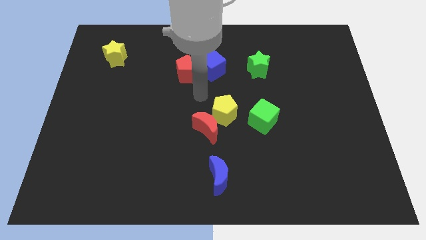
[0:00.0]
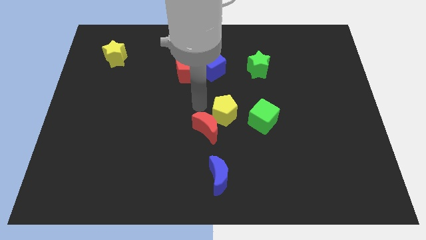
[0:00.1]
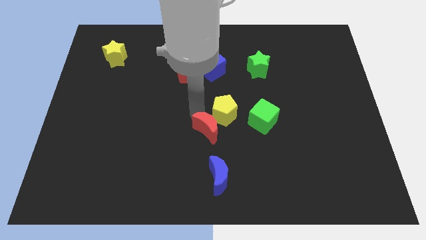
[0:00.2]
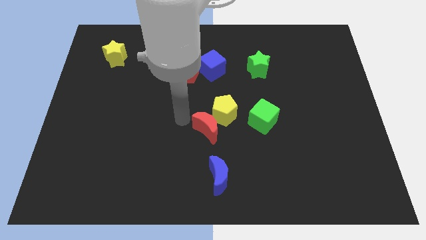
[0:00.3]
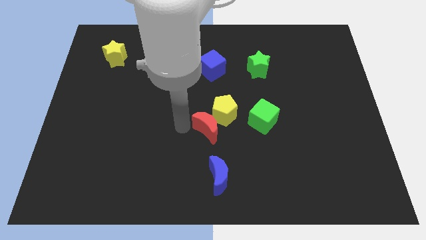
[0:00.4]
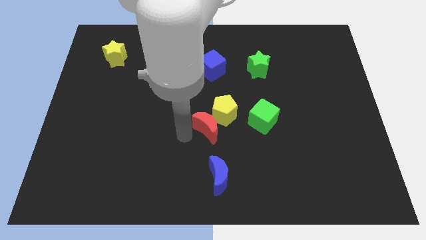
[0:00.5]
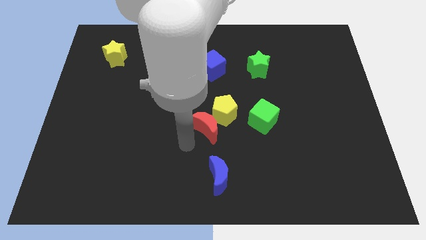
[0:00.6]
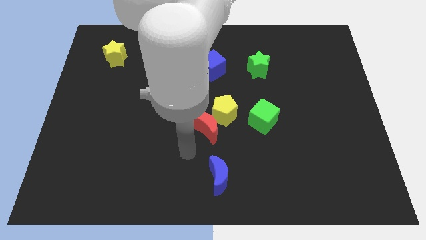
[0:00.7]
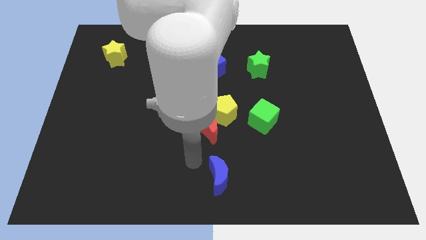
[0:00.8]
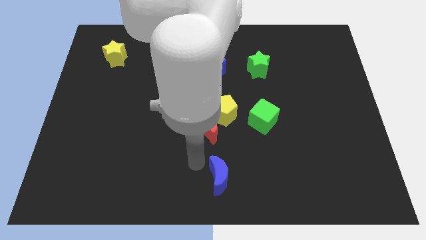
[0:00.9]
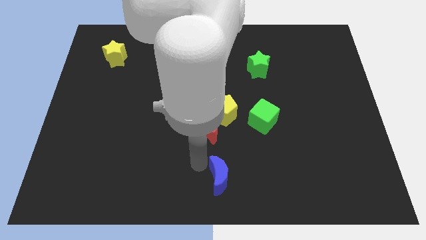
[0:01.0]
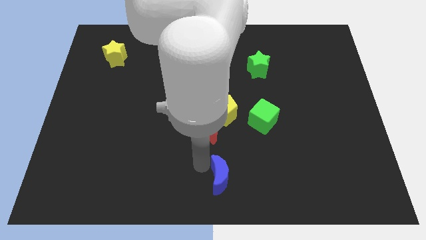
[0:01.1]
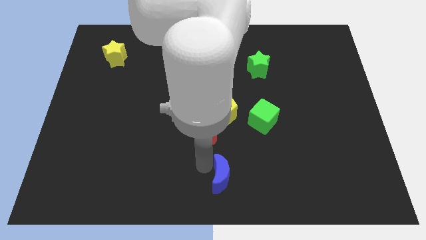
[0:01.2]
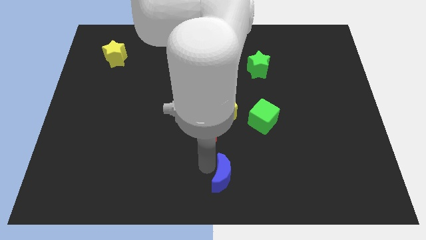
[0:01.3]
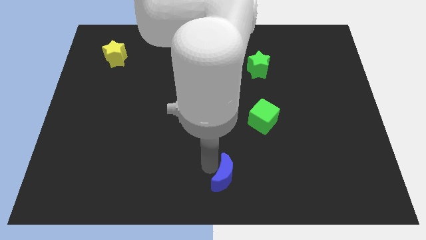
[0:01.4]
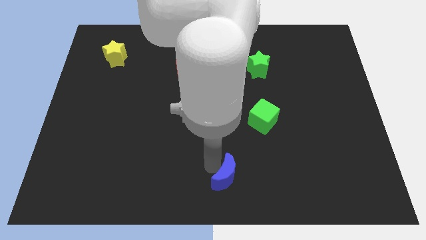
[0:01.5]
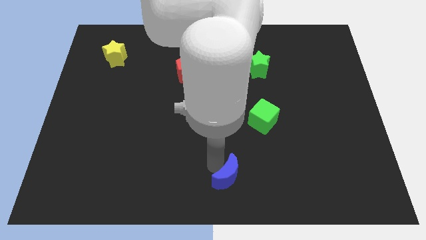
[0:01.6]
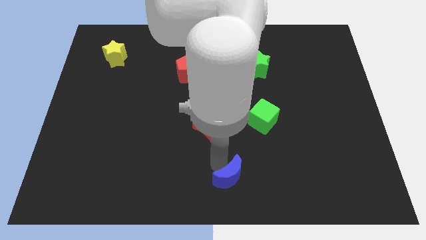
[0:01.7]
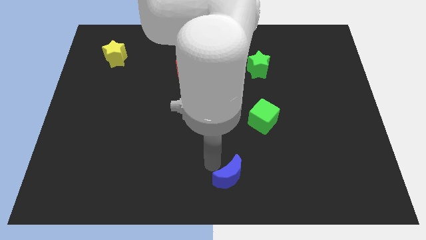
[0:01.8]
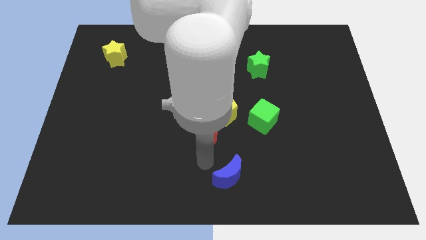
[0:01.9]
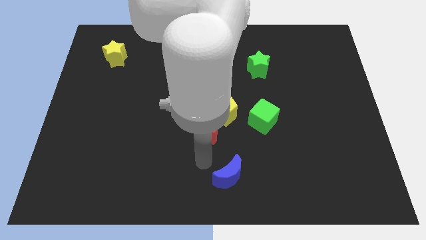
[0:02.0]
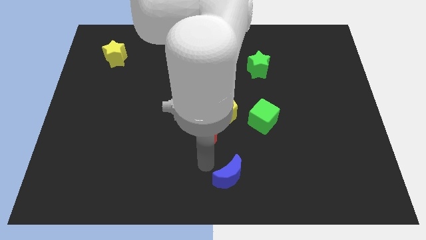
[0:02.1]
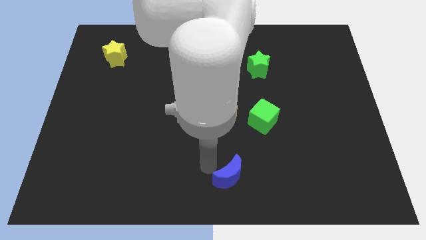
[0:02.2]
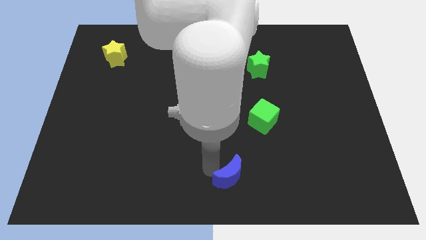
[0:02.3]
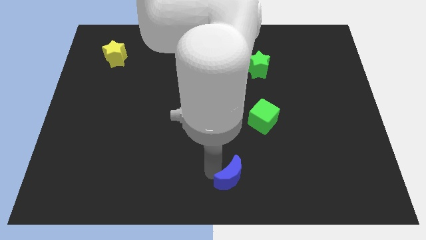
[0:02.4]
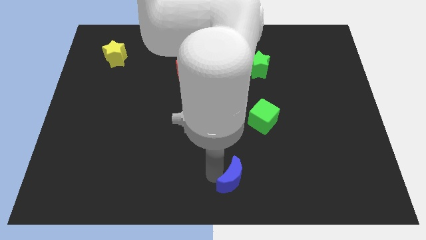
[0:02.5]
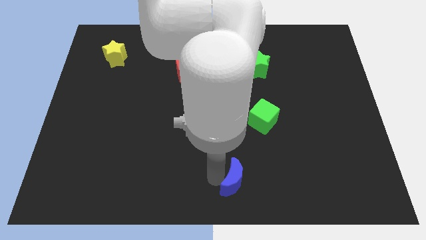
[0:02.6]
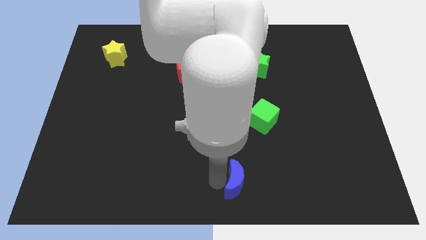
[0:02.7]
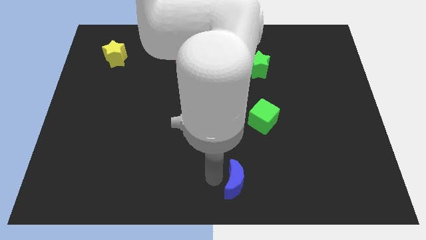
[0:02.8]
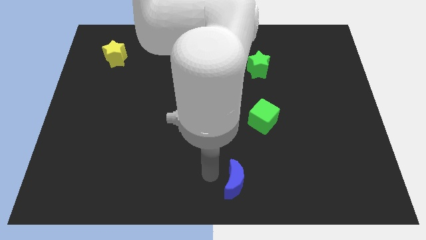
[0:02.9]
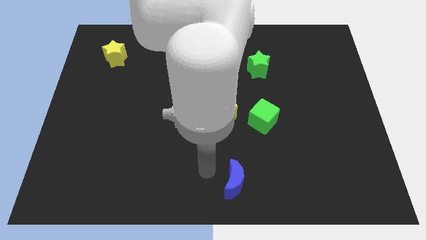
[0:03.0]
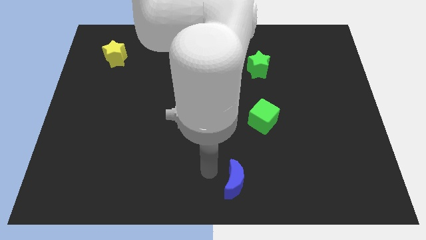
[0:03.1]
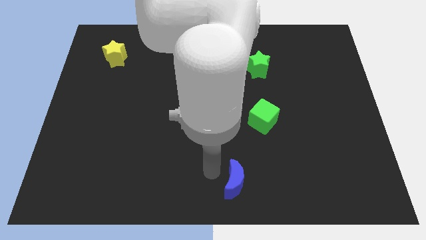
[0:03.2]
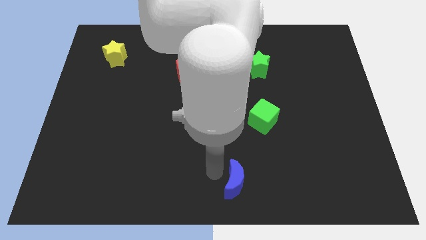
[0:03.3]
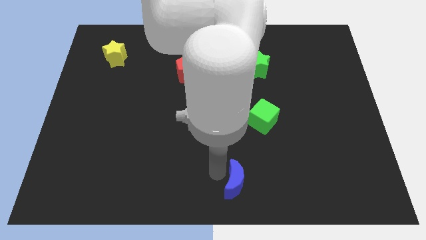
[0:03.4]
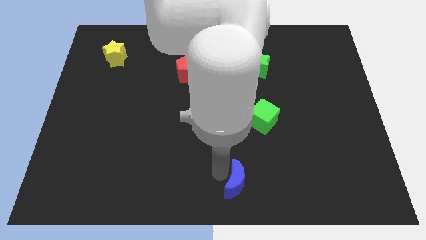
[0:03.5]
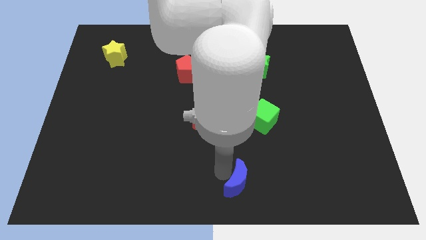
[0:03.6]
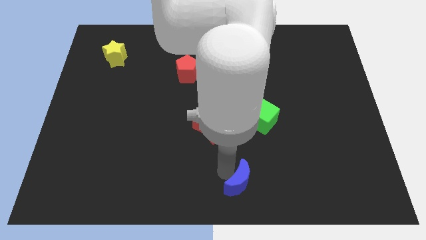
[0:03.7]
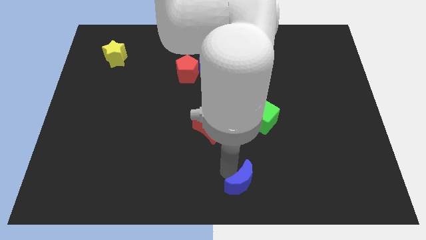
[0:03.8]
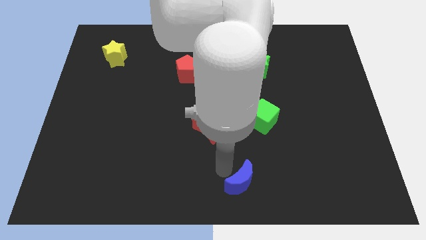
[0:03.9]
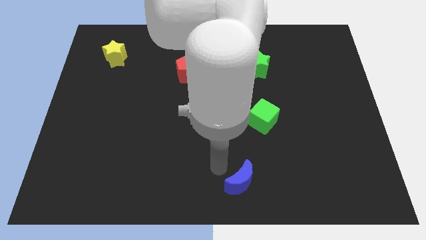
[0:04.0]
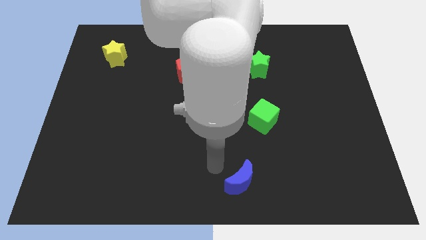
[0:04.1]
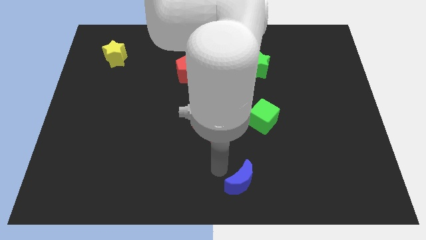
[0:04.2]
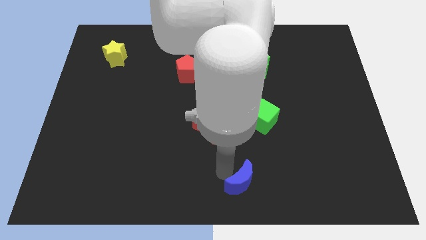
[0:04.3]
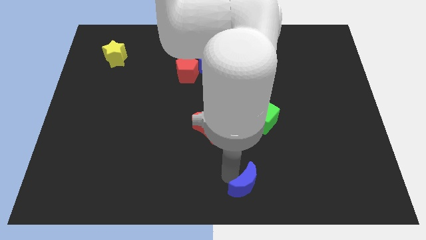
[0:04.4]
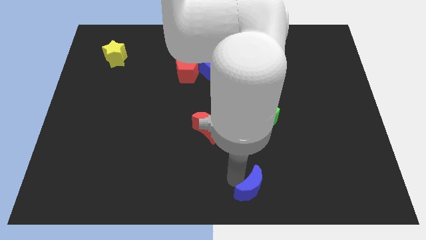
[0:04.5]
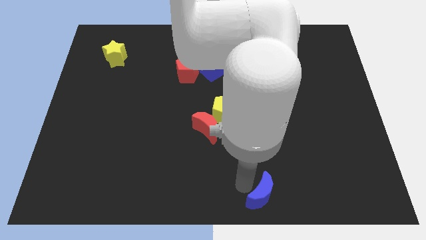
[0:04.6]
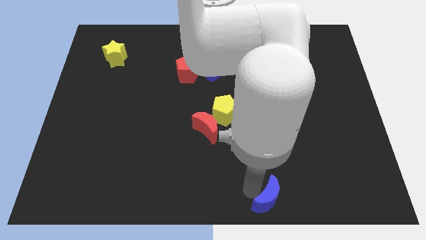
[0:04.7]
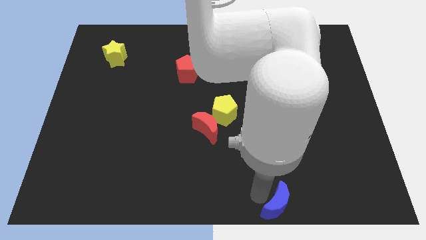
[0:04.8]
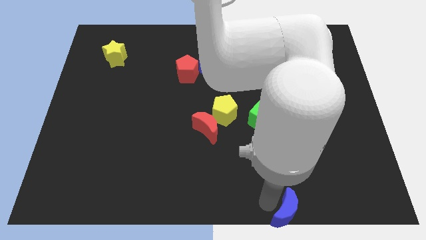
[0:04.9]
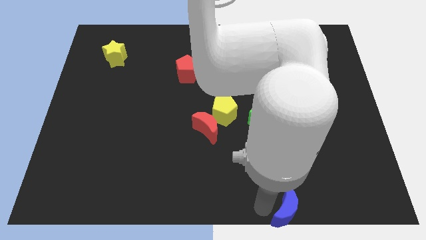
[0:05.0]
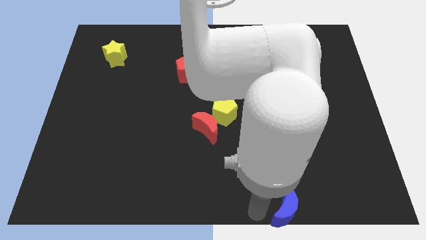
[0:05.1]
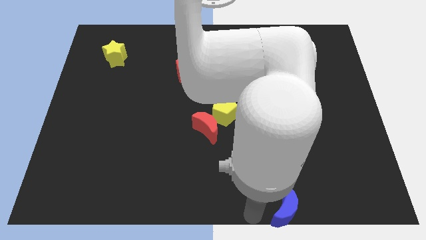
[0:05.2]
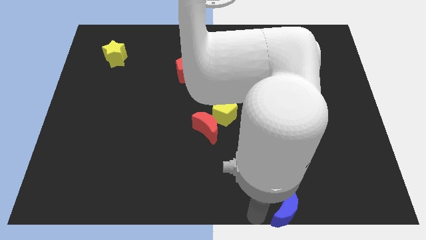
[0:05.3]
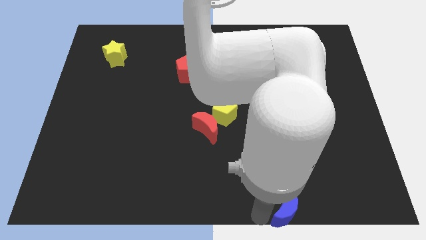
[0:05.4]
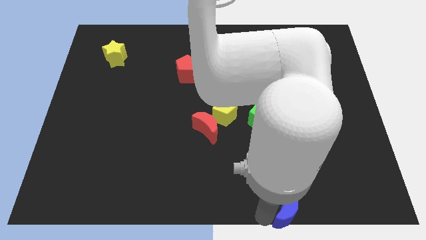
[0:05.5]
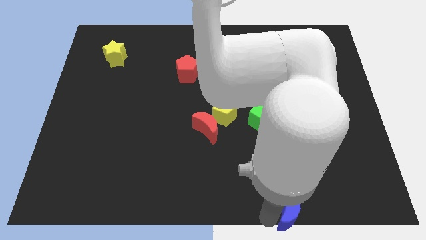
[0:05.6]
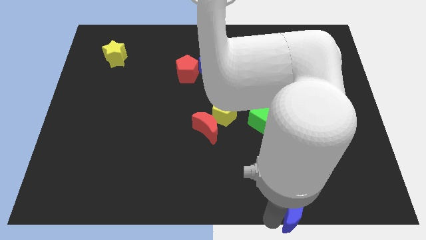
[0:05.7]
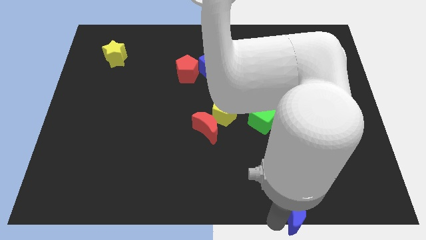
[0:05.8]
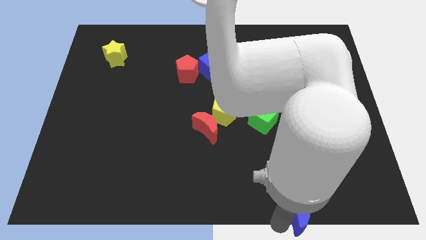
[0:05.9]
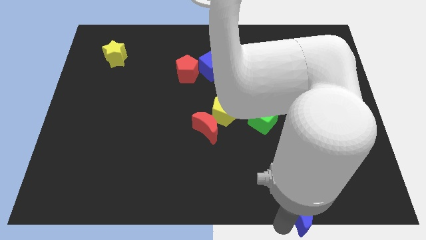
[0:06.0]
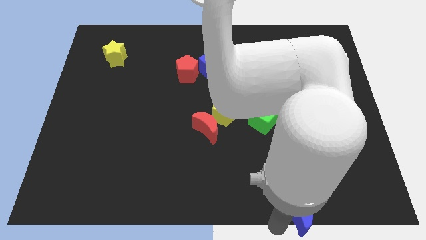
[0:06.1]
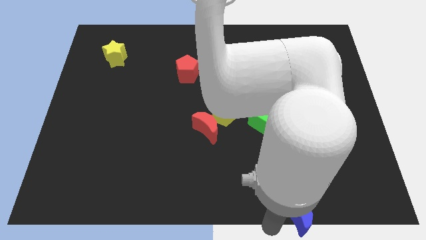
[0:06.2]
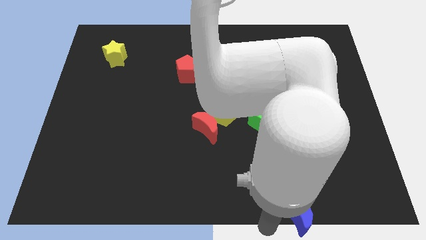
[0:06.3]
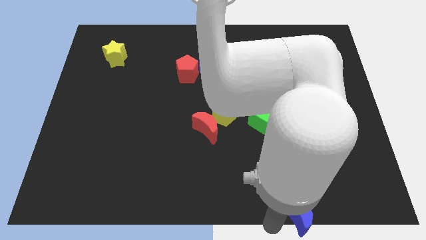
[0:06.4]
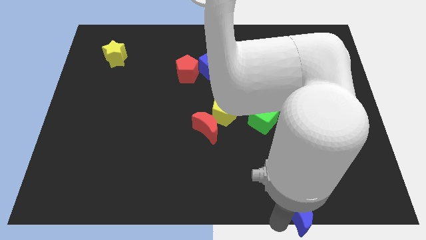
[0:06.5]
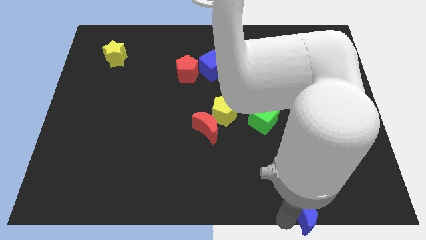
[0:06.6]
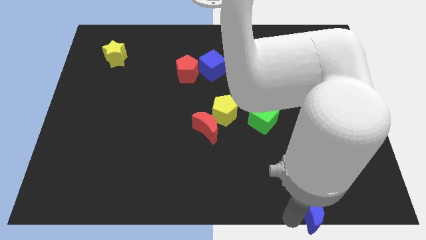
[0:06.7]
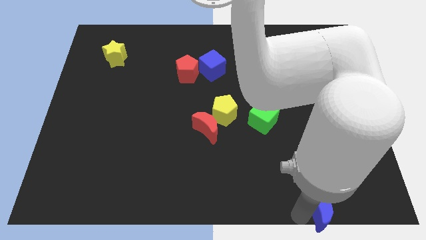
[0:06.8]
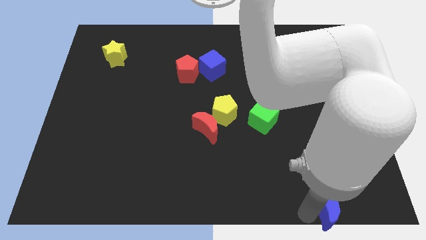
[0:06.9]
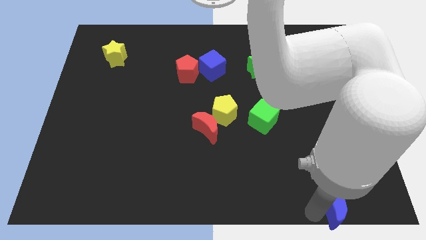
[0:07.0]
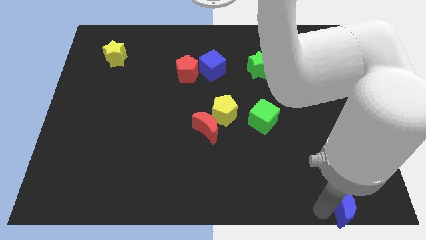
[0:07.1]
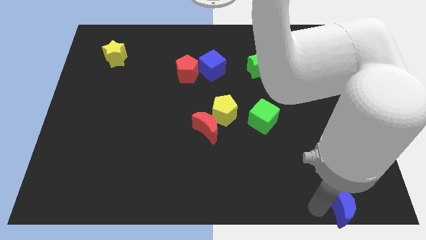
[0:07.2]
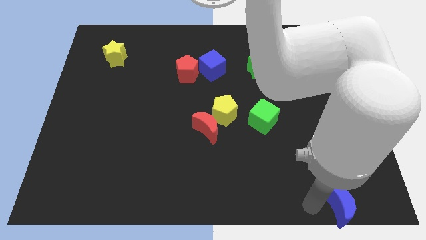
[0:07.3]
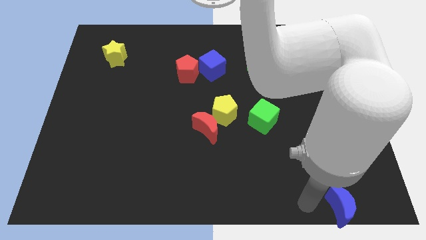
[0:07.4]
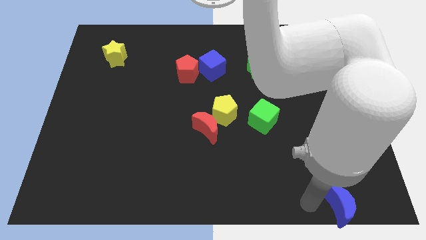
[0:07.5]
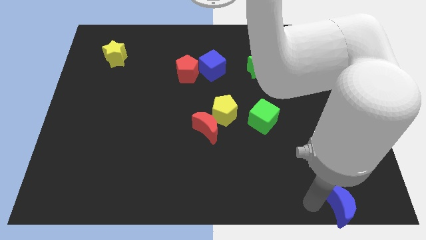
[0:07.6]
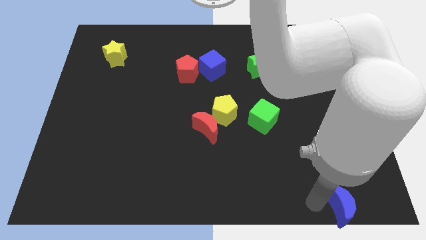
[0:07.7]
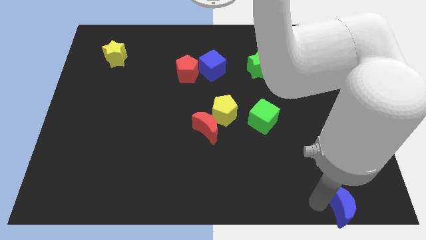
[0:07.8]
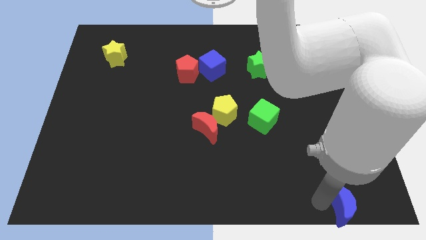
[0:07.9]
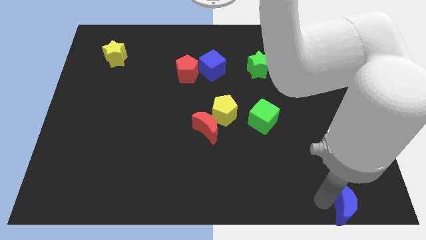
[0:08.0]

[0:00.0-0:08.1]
move the blue moon to the lower right corner
